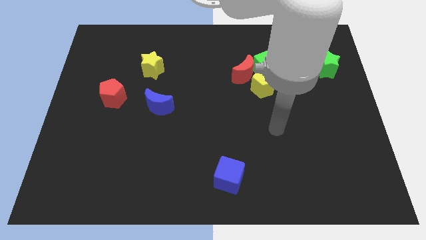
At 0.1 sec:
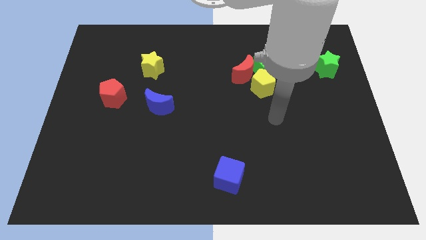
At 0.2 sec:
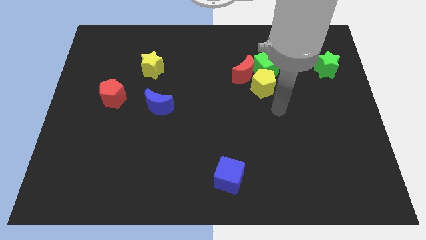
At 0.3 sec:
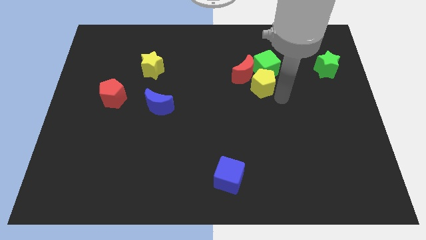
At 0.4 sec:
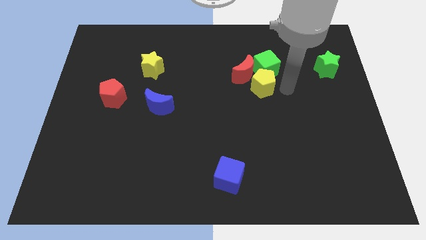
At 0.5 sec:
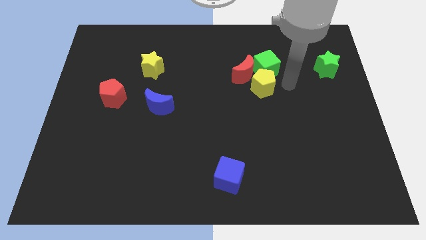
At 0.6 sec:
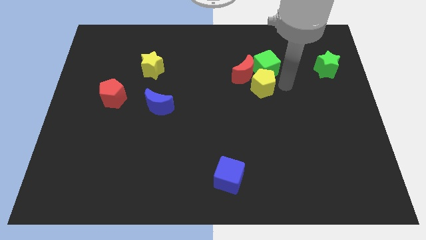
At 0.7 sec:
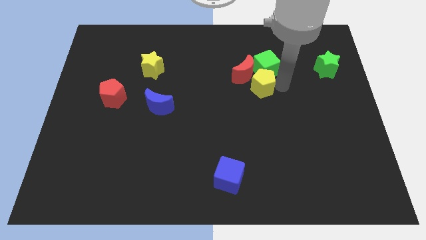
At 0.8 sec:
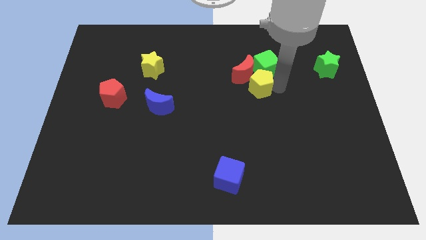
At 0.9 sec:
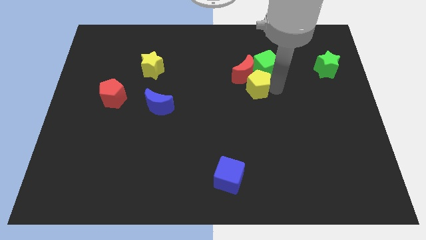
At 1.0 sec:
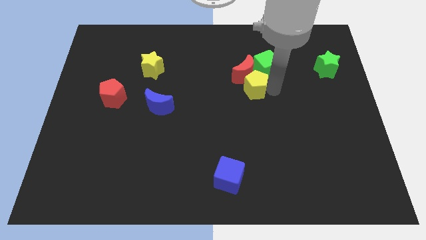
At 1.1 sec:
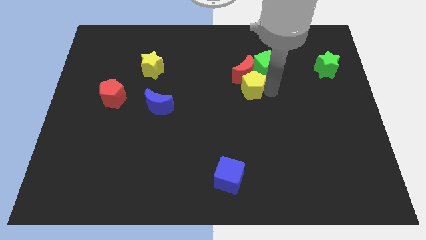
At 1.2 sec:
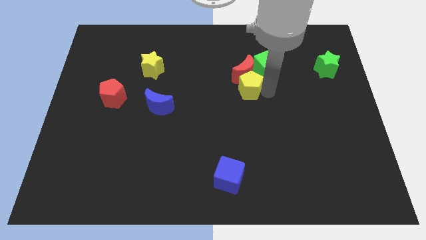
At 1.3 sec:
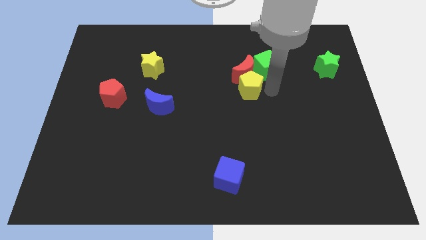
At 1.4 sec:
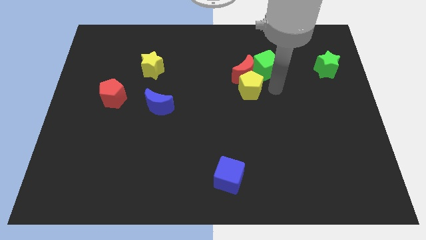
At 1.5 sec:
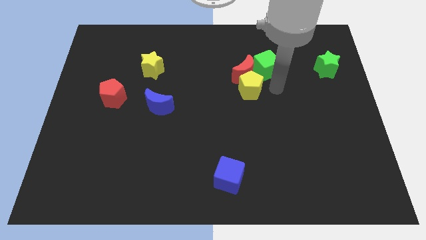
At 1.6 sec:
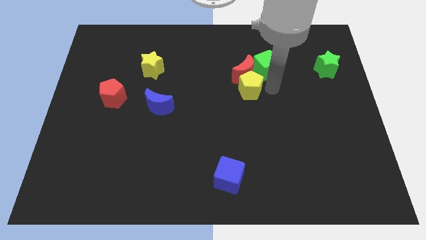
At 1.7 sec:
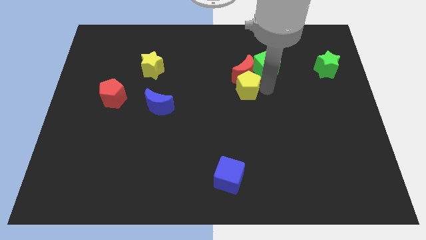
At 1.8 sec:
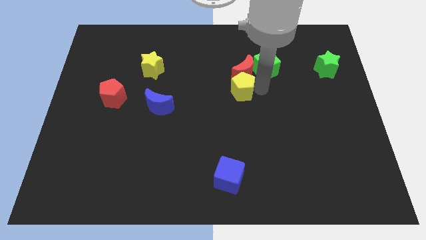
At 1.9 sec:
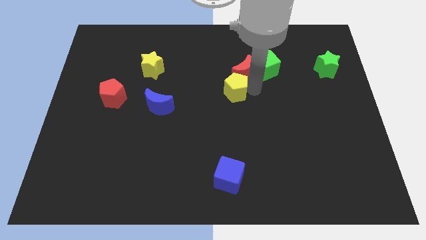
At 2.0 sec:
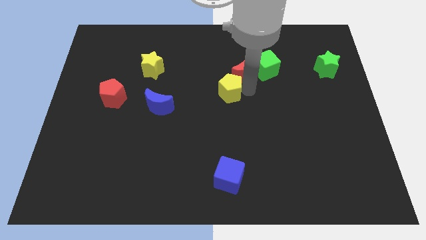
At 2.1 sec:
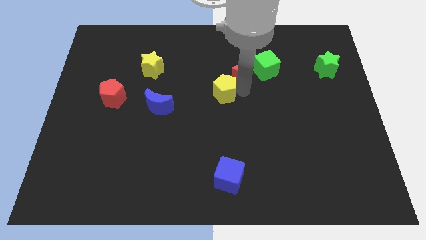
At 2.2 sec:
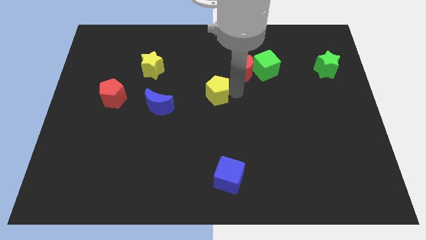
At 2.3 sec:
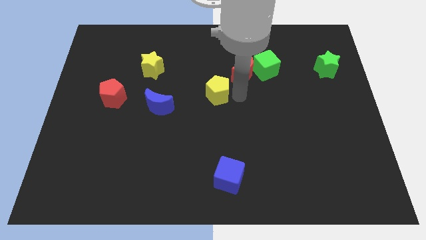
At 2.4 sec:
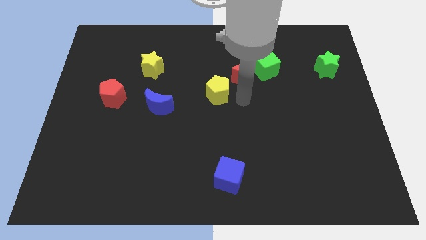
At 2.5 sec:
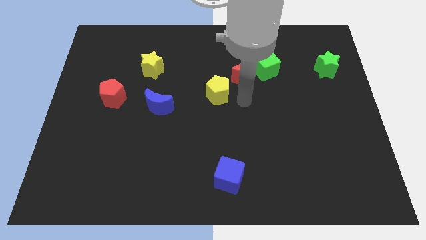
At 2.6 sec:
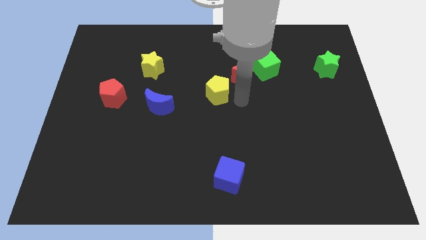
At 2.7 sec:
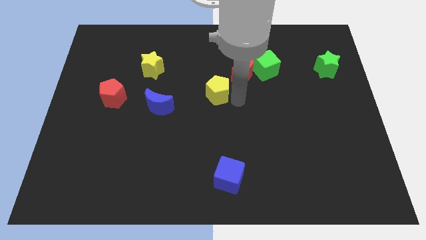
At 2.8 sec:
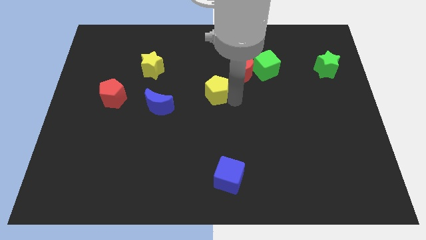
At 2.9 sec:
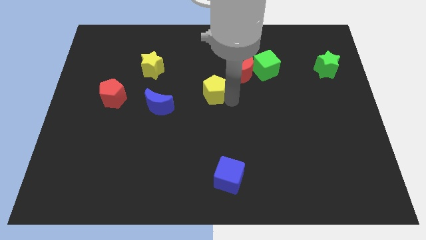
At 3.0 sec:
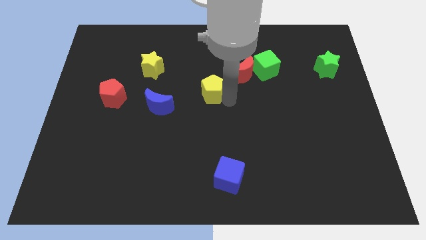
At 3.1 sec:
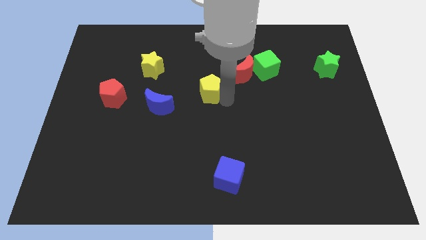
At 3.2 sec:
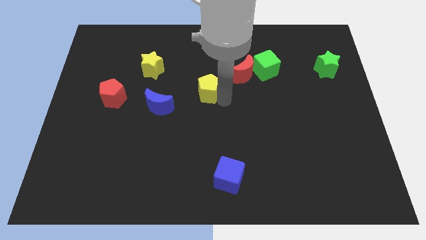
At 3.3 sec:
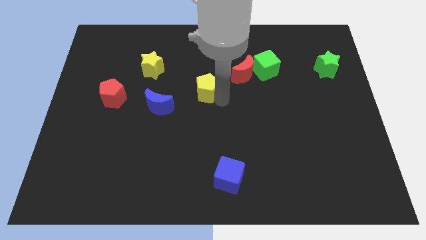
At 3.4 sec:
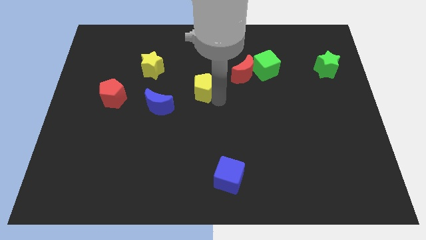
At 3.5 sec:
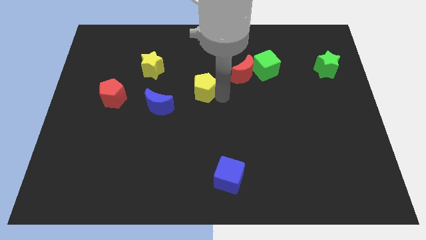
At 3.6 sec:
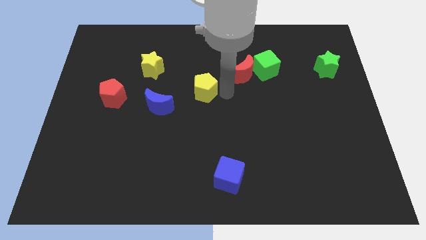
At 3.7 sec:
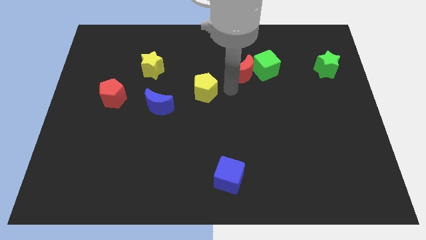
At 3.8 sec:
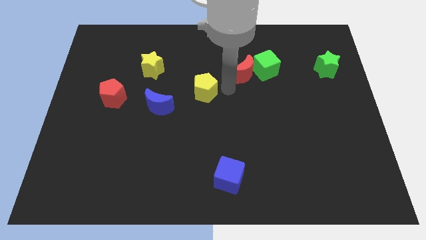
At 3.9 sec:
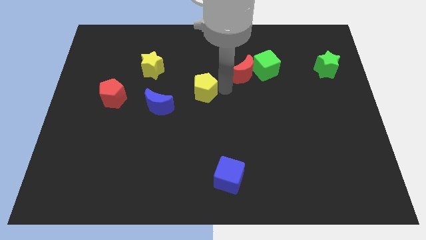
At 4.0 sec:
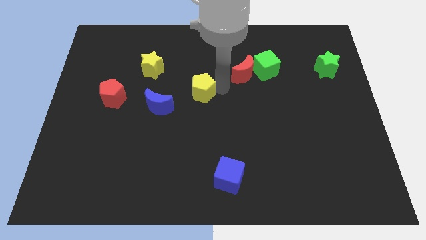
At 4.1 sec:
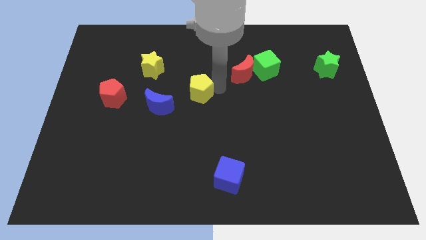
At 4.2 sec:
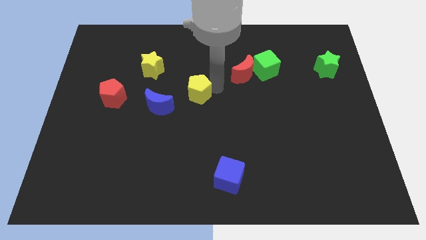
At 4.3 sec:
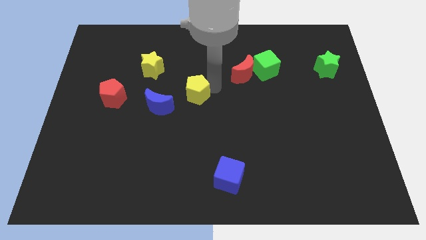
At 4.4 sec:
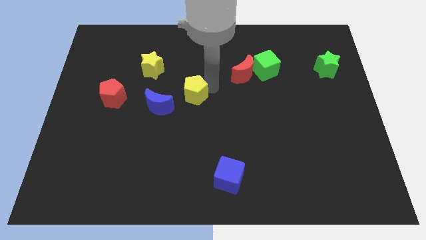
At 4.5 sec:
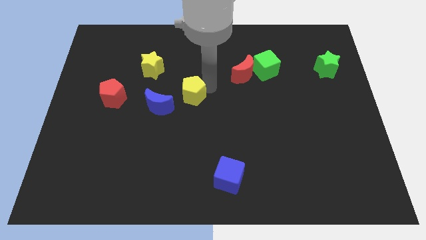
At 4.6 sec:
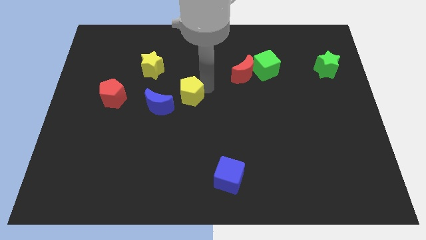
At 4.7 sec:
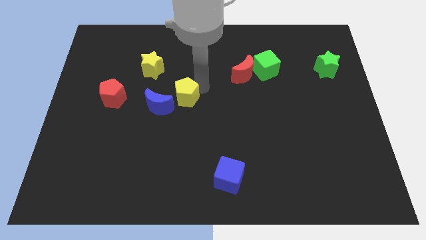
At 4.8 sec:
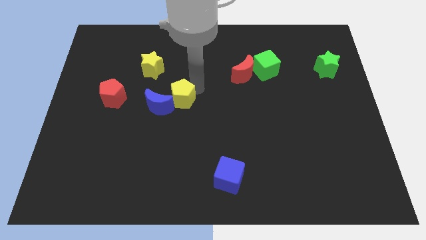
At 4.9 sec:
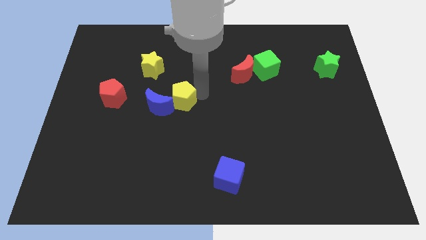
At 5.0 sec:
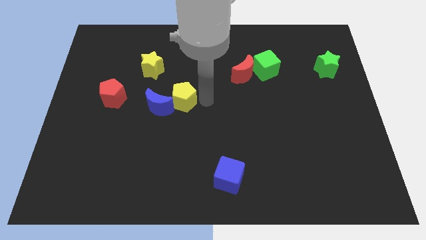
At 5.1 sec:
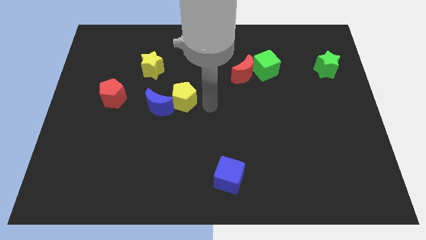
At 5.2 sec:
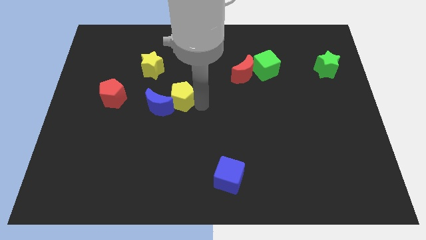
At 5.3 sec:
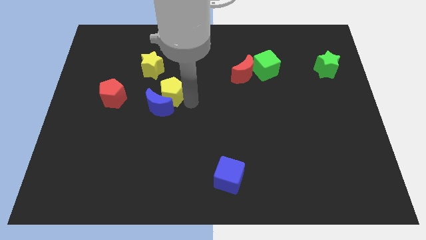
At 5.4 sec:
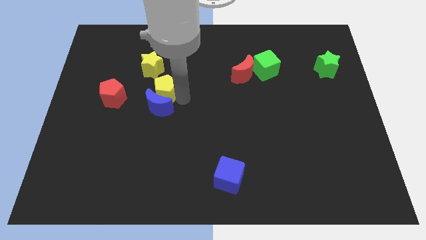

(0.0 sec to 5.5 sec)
slide the yellow pentagon to the top left of the blue moon

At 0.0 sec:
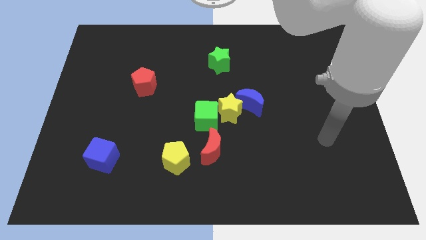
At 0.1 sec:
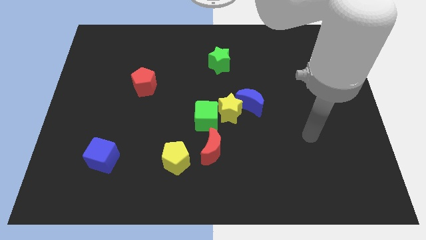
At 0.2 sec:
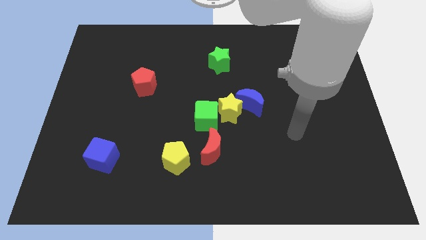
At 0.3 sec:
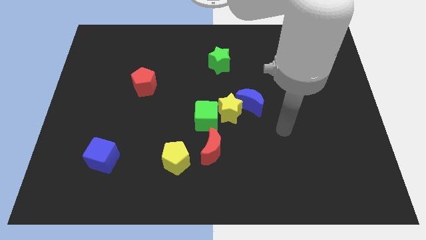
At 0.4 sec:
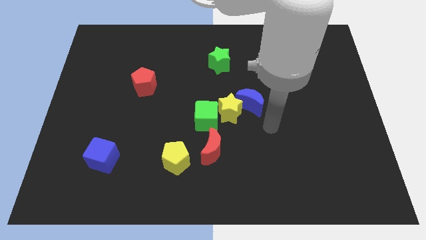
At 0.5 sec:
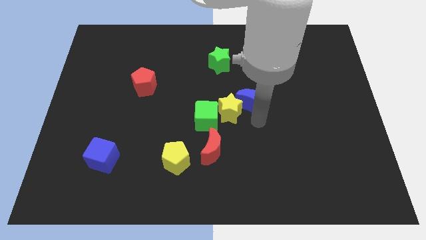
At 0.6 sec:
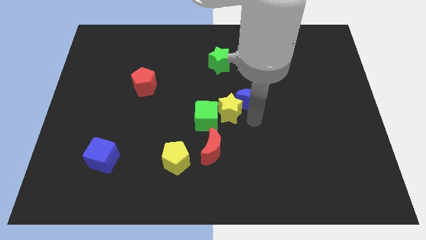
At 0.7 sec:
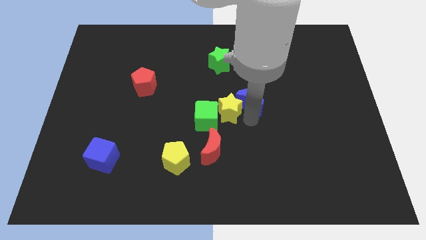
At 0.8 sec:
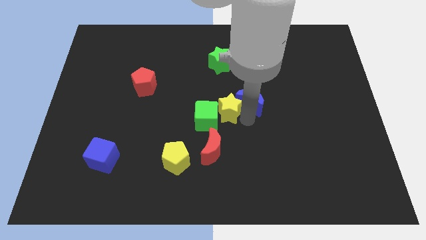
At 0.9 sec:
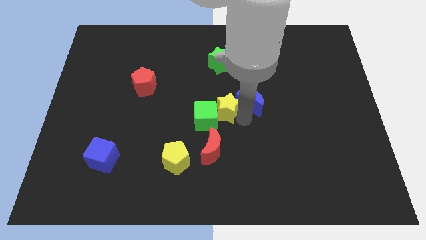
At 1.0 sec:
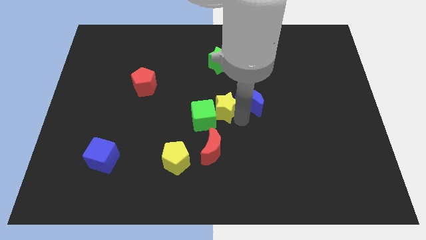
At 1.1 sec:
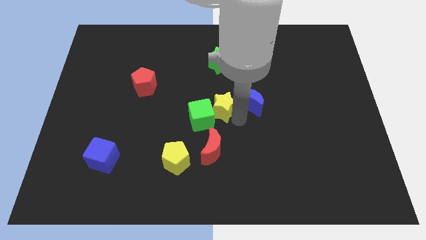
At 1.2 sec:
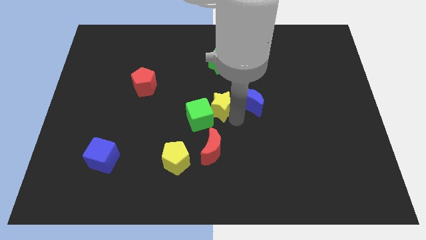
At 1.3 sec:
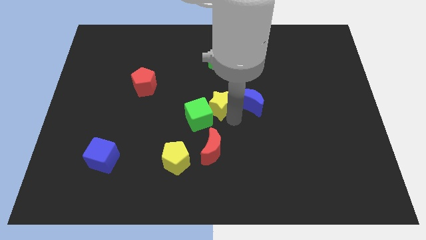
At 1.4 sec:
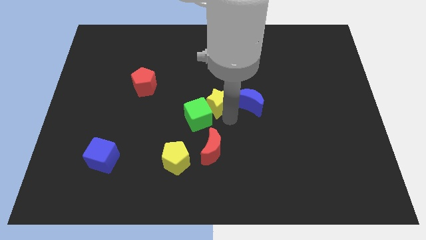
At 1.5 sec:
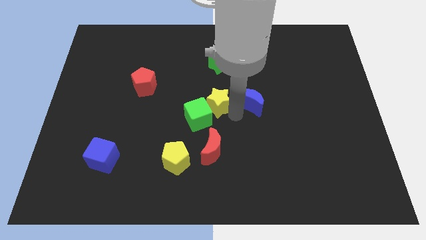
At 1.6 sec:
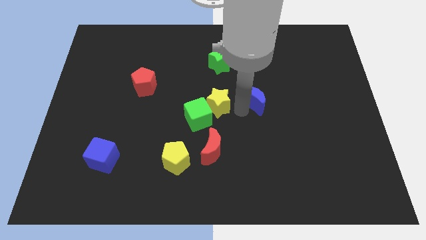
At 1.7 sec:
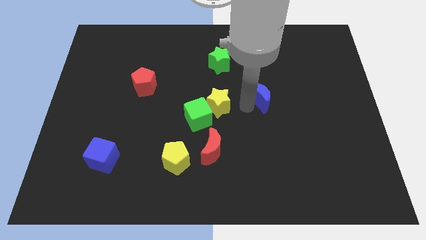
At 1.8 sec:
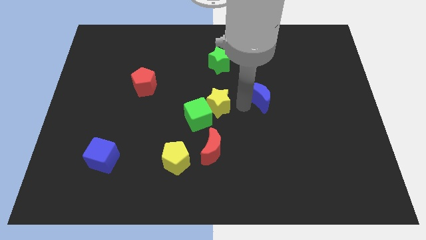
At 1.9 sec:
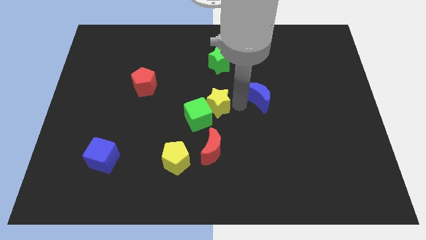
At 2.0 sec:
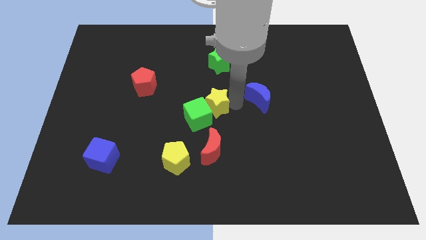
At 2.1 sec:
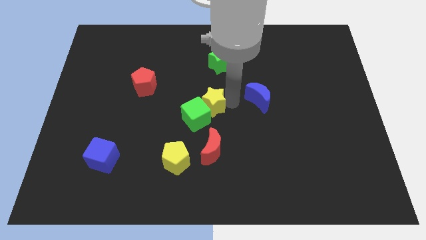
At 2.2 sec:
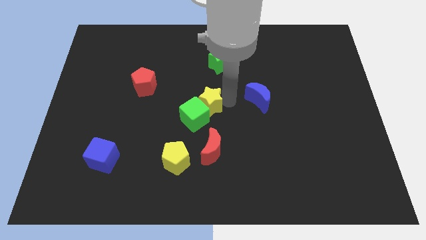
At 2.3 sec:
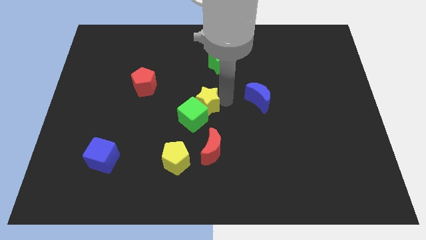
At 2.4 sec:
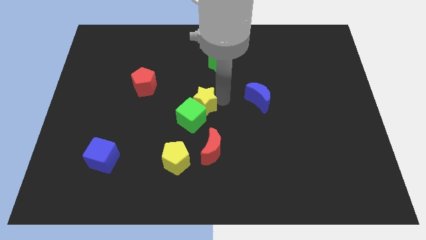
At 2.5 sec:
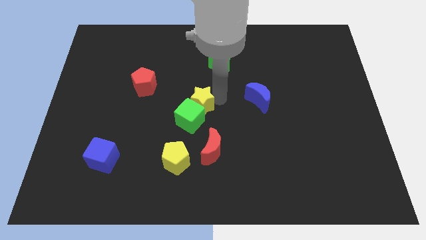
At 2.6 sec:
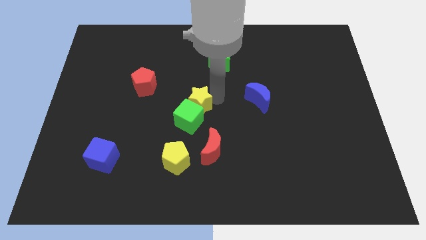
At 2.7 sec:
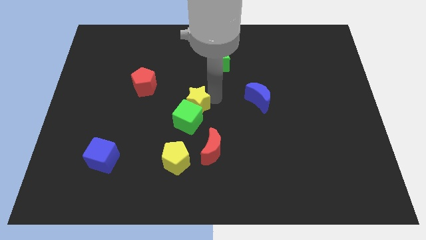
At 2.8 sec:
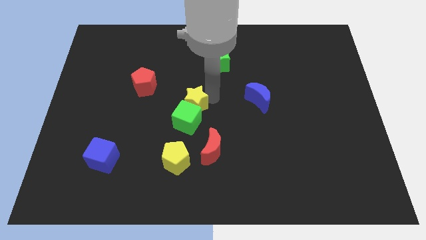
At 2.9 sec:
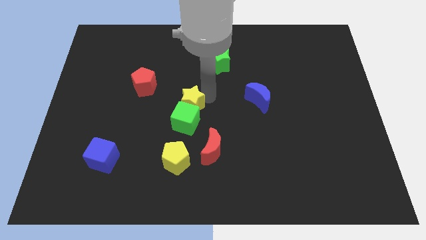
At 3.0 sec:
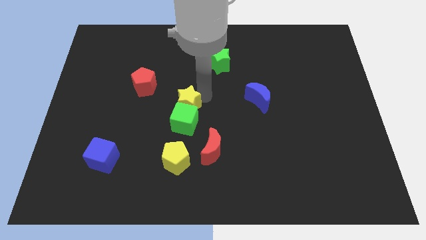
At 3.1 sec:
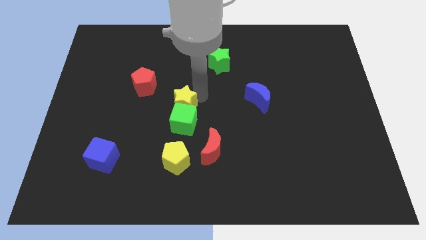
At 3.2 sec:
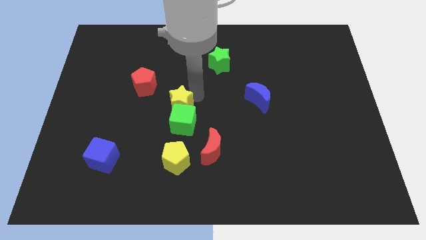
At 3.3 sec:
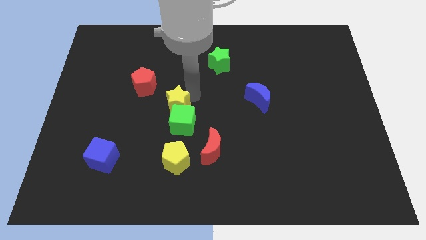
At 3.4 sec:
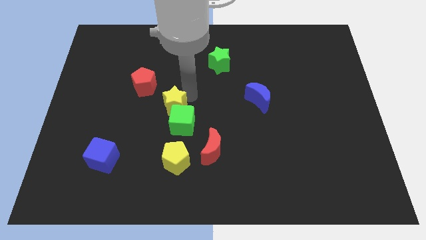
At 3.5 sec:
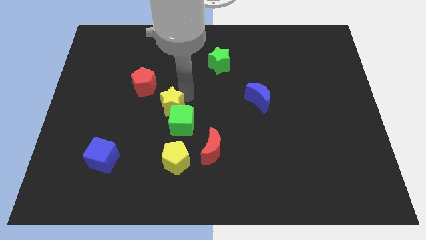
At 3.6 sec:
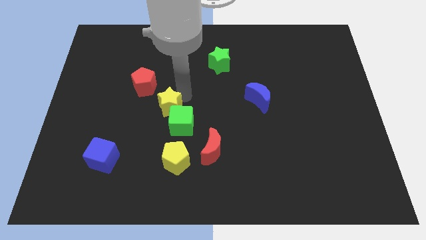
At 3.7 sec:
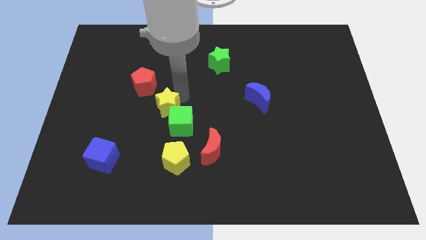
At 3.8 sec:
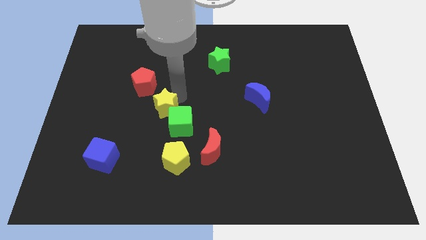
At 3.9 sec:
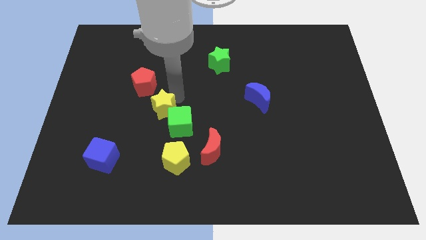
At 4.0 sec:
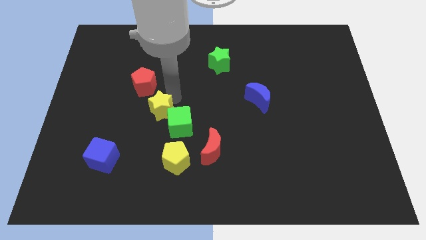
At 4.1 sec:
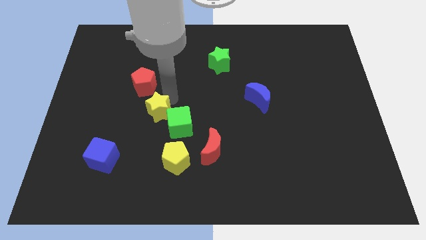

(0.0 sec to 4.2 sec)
move the yellow star below the red pentagon
